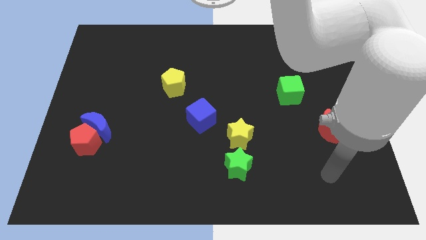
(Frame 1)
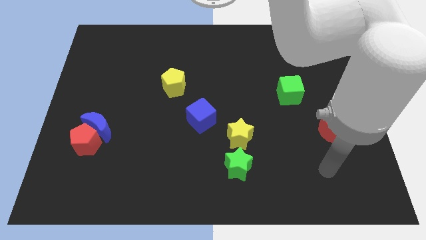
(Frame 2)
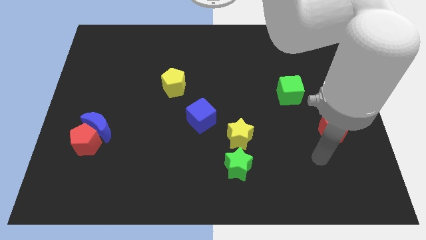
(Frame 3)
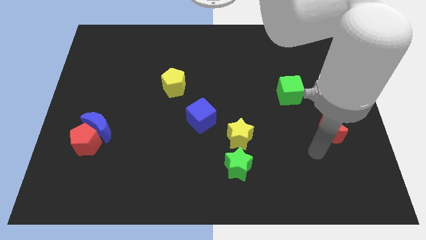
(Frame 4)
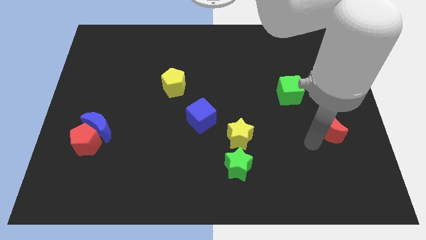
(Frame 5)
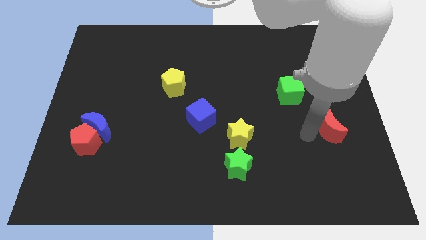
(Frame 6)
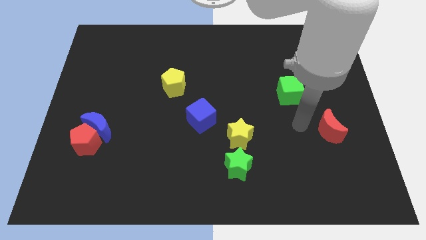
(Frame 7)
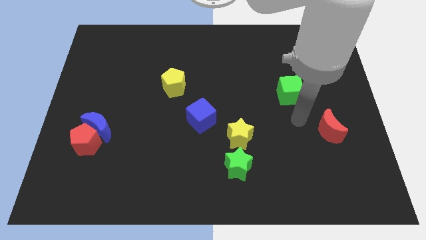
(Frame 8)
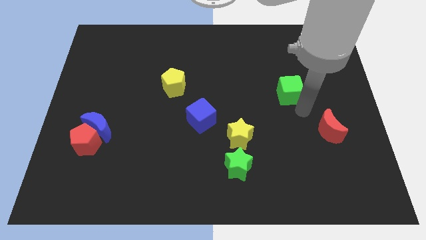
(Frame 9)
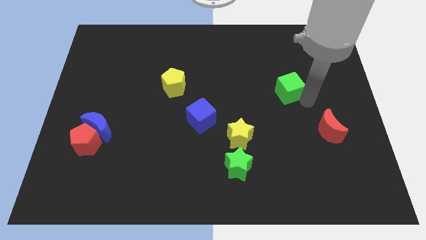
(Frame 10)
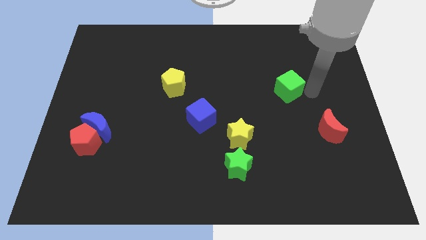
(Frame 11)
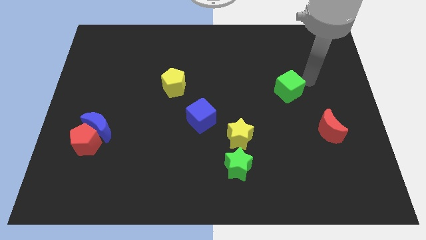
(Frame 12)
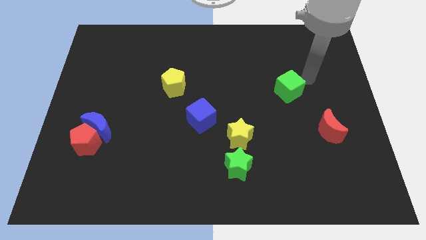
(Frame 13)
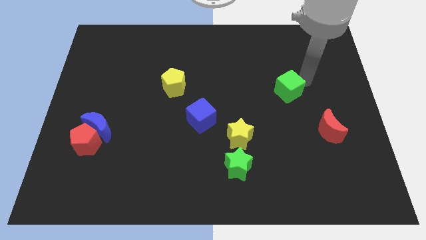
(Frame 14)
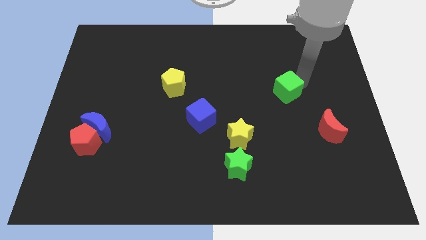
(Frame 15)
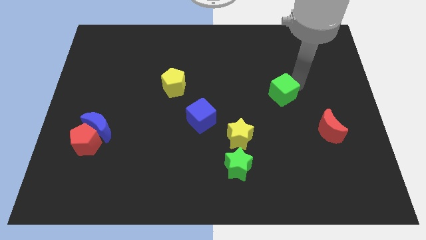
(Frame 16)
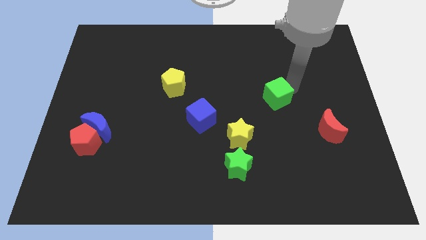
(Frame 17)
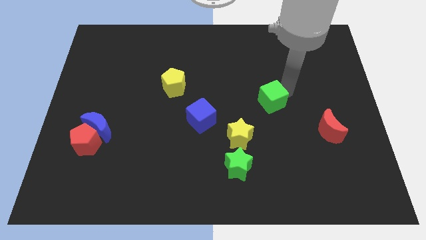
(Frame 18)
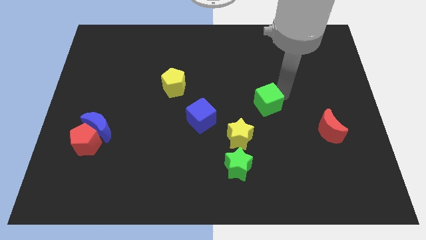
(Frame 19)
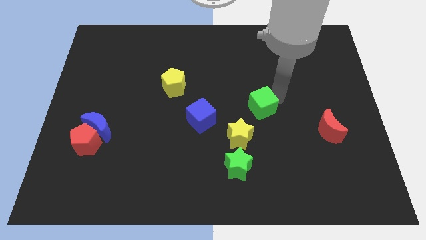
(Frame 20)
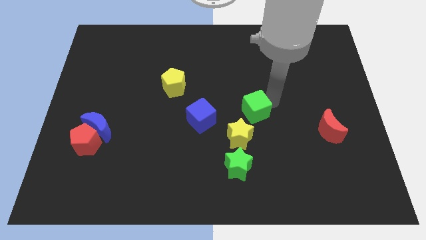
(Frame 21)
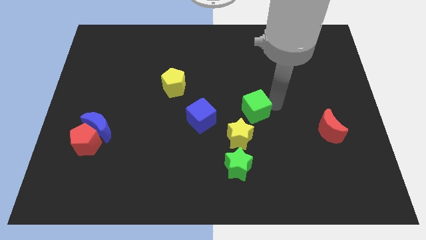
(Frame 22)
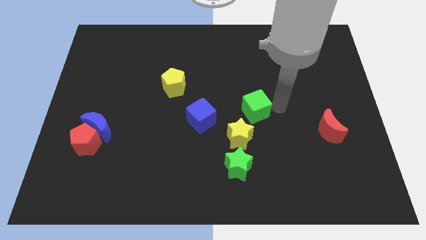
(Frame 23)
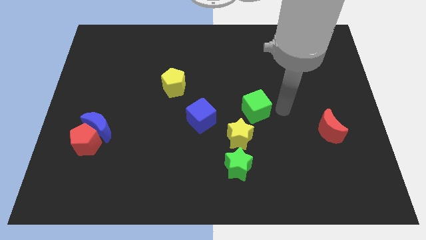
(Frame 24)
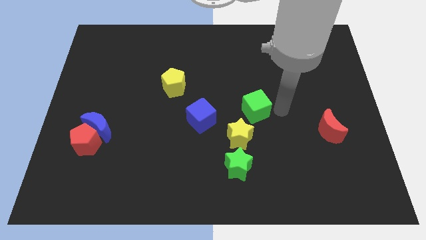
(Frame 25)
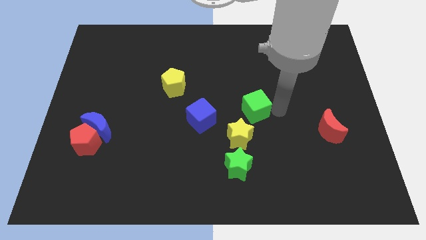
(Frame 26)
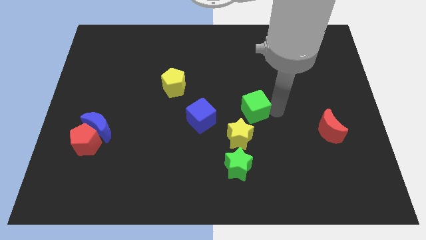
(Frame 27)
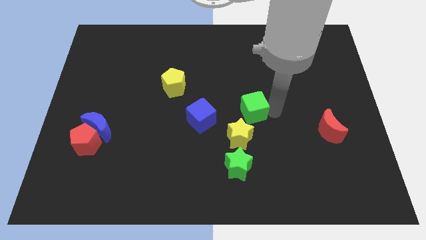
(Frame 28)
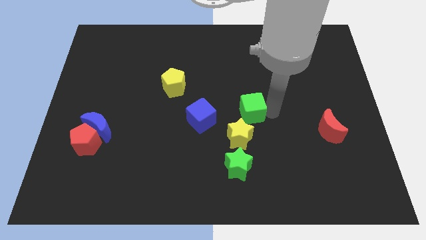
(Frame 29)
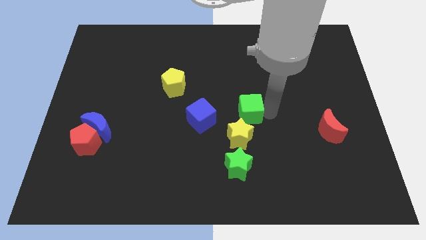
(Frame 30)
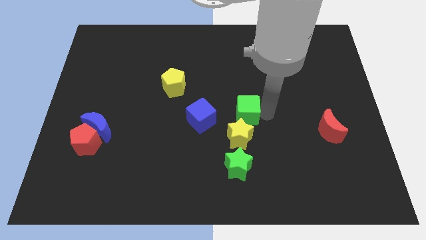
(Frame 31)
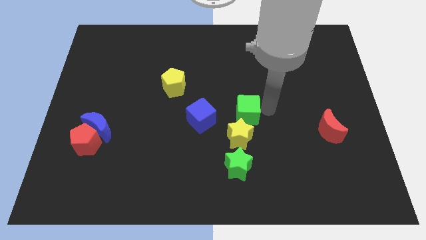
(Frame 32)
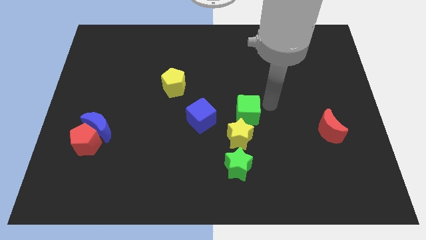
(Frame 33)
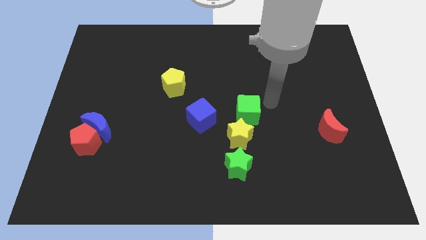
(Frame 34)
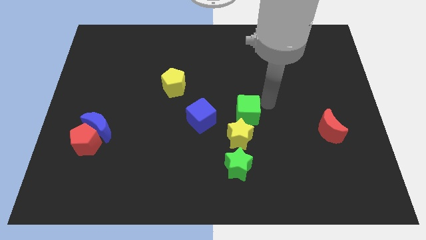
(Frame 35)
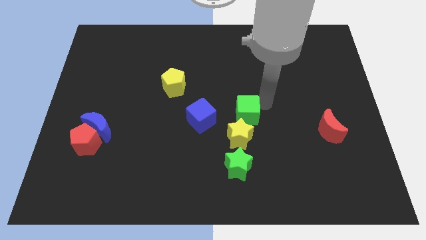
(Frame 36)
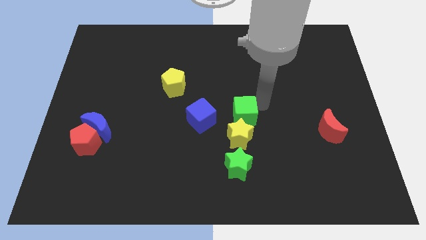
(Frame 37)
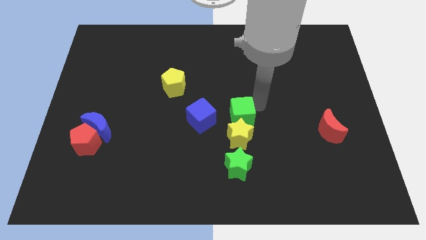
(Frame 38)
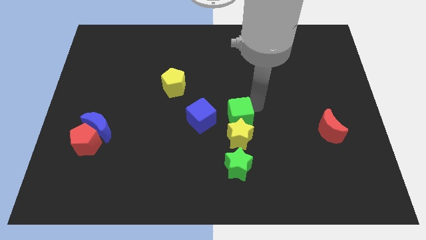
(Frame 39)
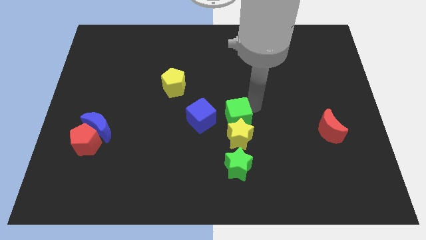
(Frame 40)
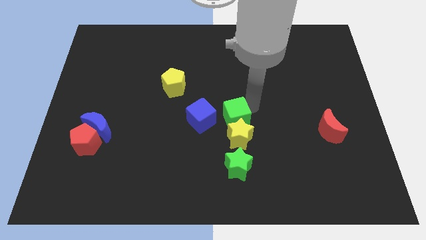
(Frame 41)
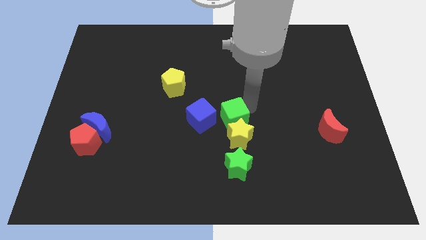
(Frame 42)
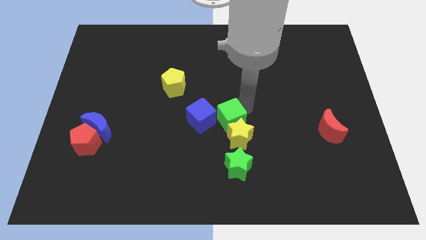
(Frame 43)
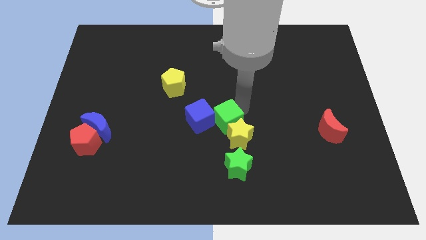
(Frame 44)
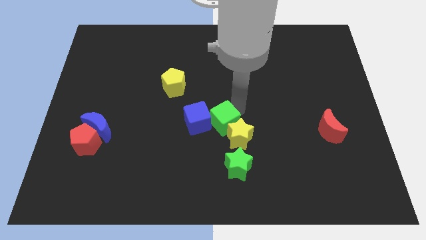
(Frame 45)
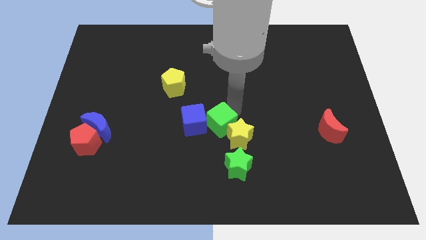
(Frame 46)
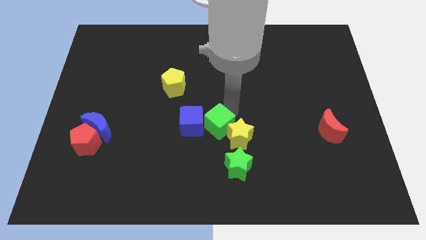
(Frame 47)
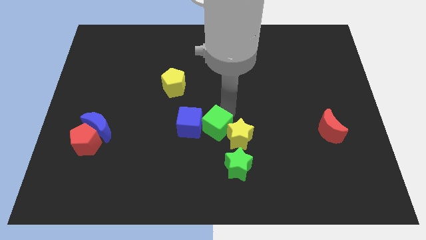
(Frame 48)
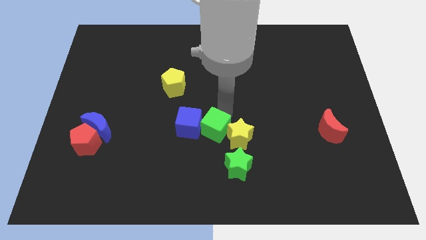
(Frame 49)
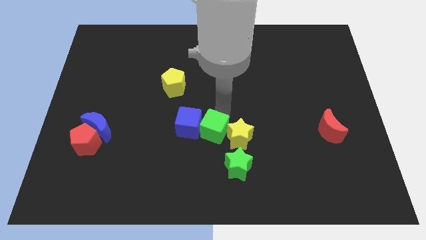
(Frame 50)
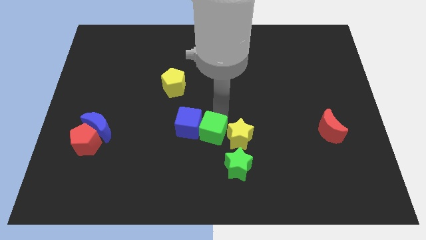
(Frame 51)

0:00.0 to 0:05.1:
move the green cube downwards and to the left diagonally

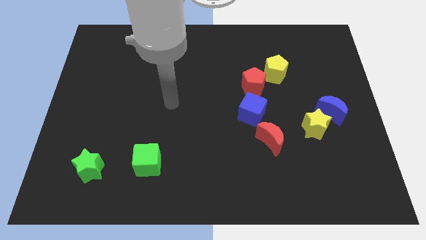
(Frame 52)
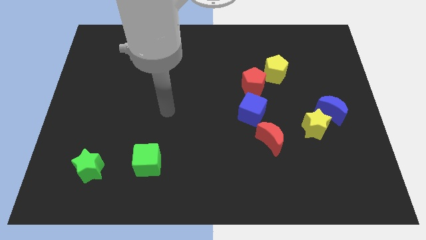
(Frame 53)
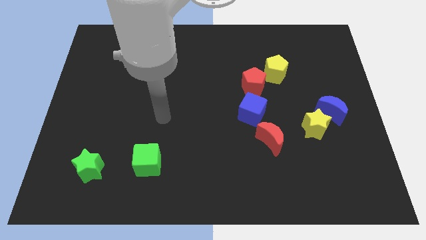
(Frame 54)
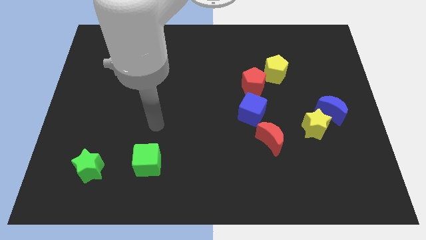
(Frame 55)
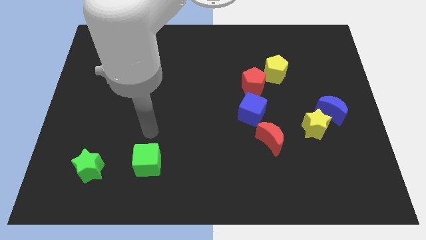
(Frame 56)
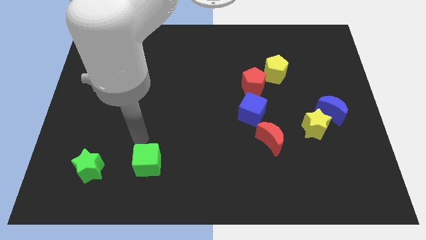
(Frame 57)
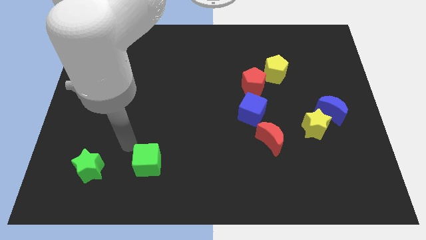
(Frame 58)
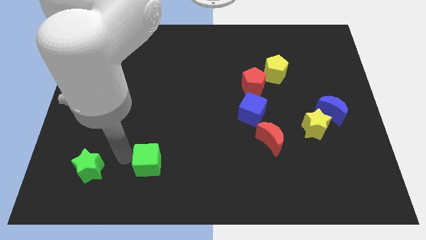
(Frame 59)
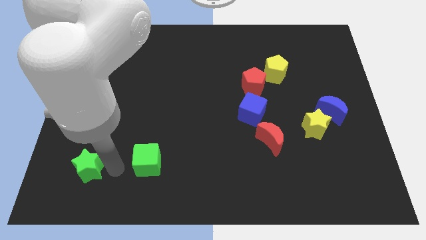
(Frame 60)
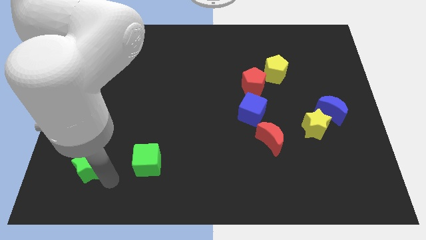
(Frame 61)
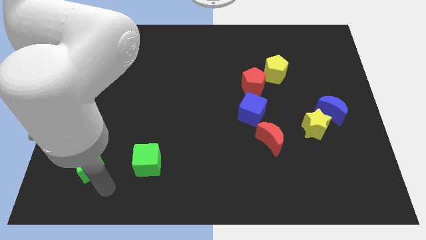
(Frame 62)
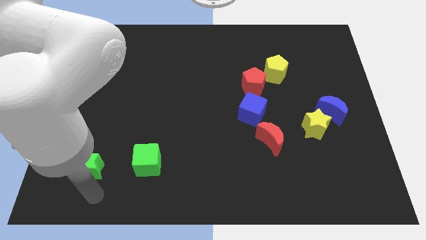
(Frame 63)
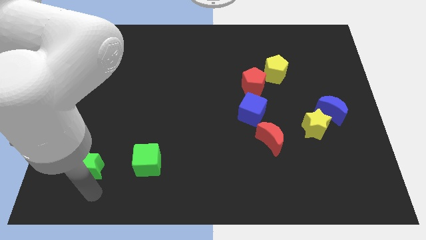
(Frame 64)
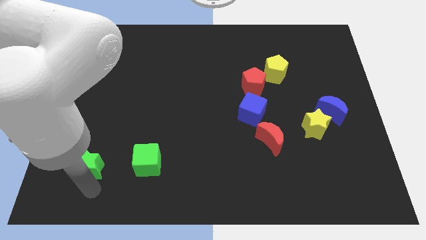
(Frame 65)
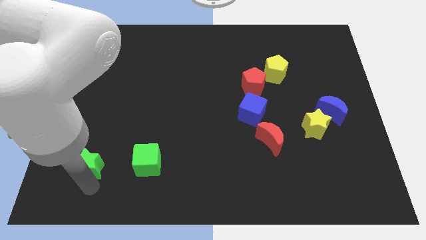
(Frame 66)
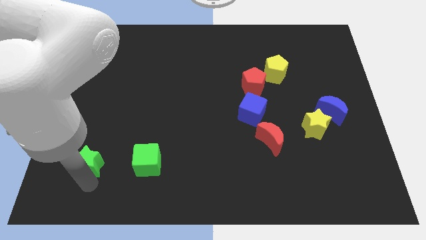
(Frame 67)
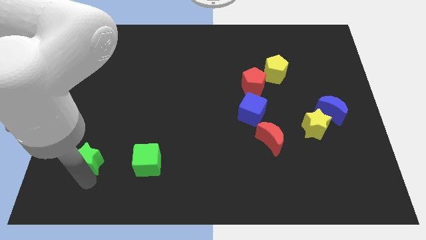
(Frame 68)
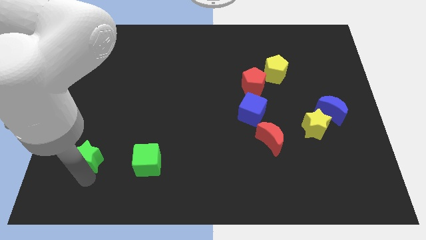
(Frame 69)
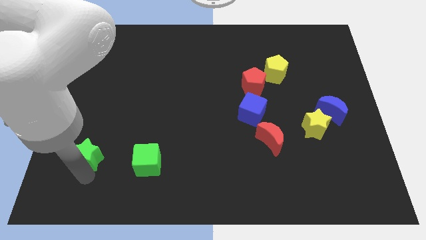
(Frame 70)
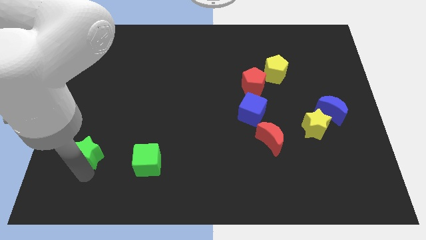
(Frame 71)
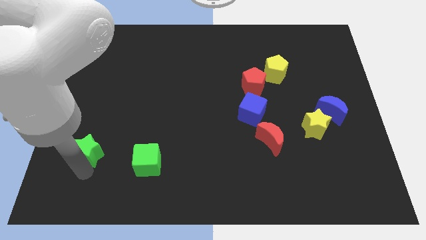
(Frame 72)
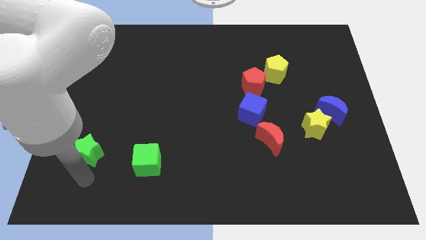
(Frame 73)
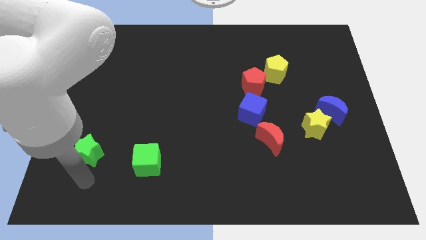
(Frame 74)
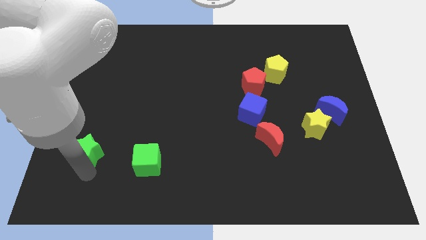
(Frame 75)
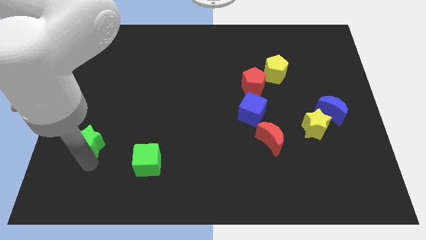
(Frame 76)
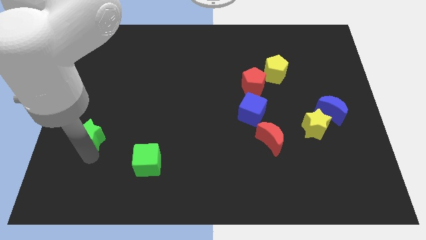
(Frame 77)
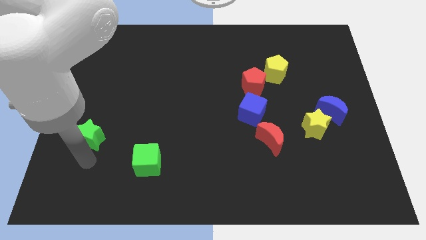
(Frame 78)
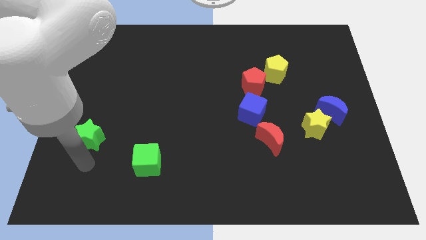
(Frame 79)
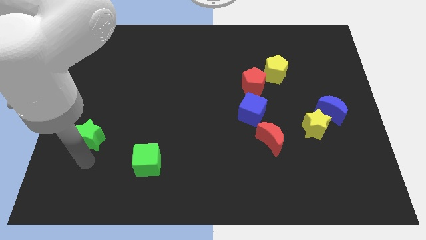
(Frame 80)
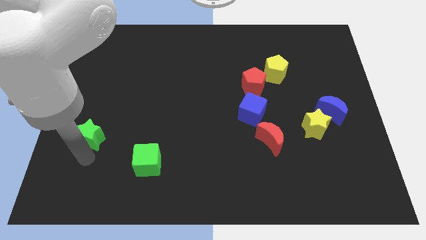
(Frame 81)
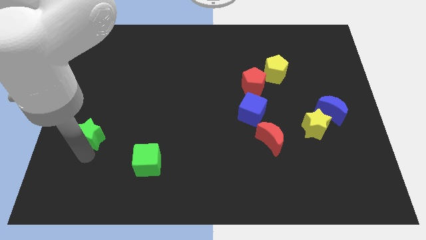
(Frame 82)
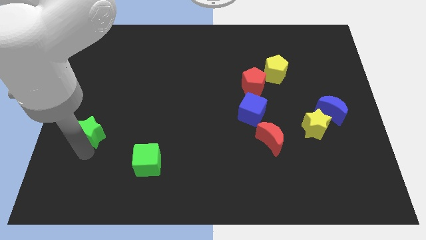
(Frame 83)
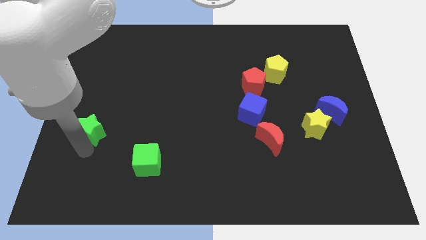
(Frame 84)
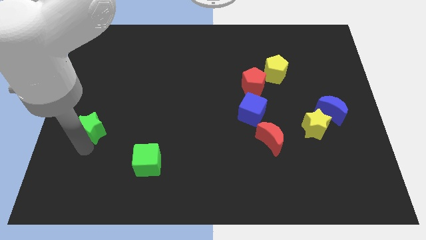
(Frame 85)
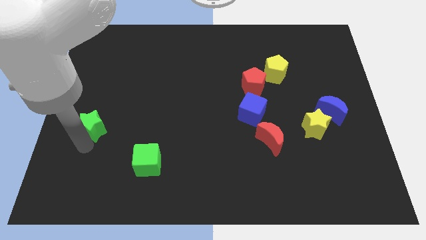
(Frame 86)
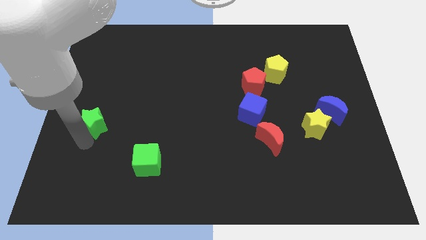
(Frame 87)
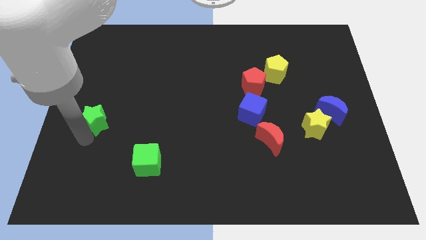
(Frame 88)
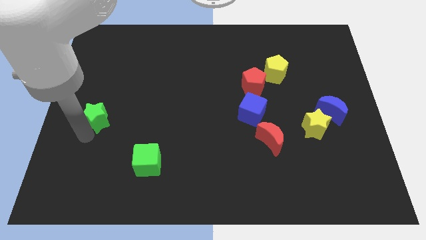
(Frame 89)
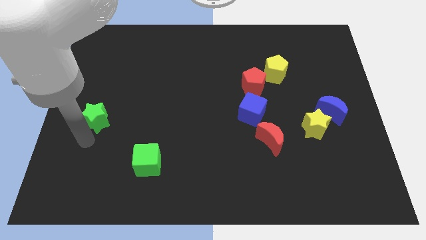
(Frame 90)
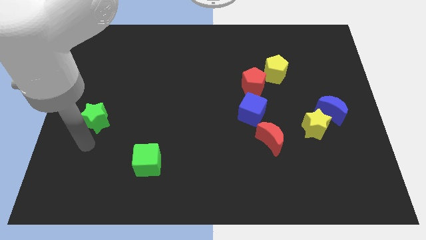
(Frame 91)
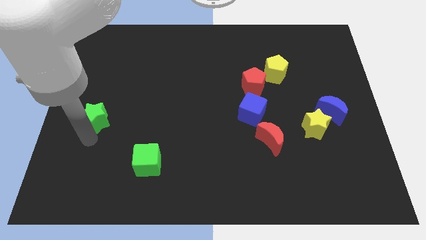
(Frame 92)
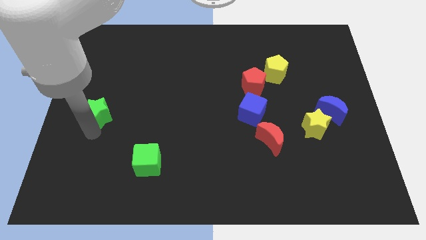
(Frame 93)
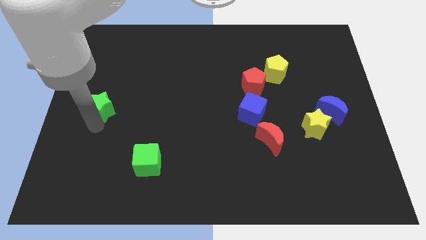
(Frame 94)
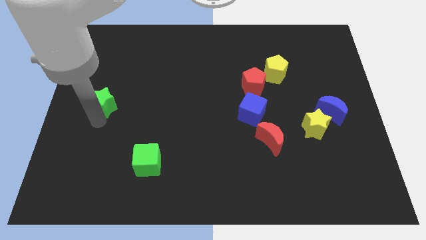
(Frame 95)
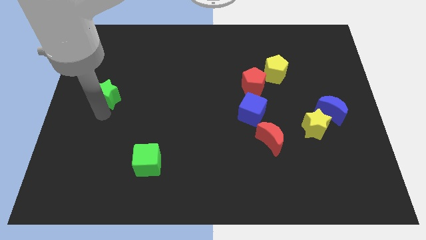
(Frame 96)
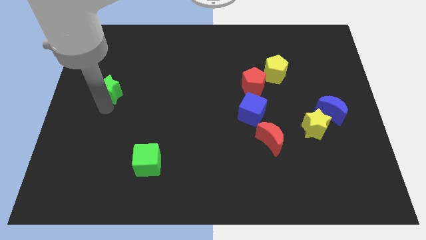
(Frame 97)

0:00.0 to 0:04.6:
move the green star upwards
